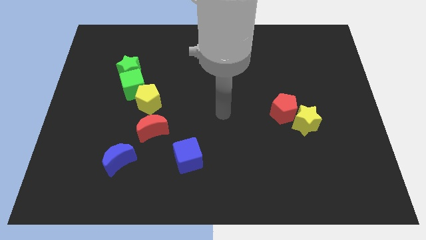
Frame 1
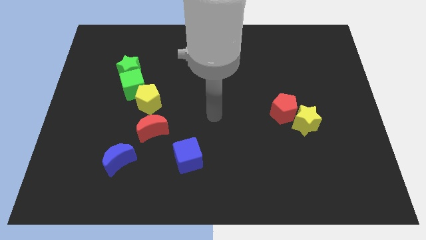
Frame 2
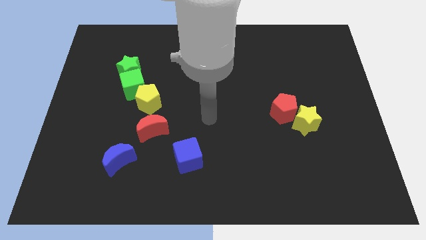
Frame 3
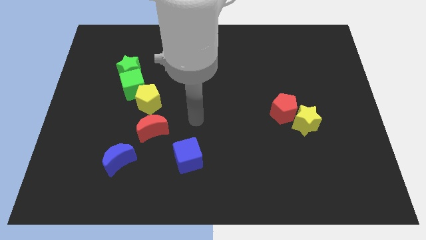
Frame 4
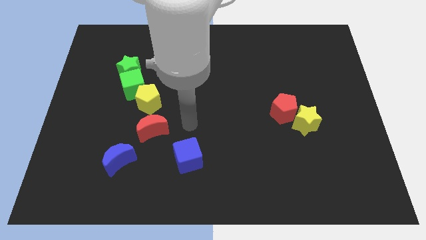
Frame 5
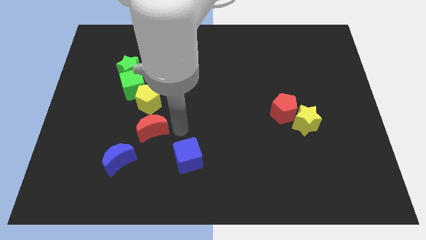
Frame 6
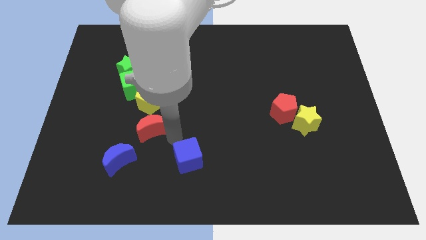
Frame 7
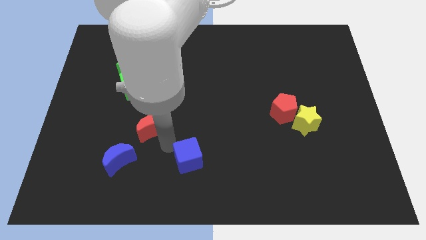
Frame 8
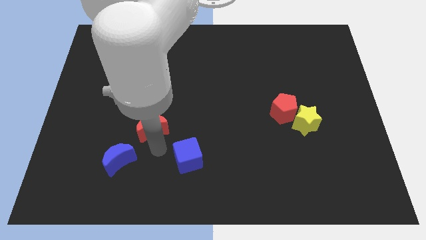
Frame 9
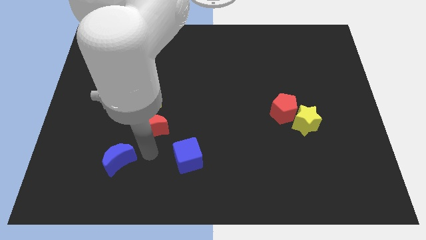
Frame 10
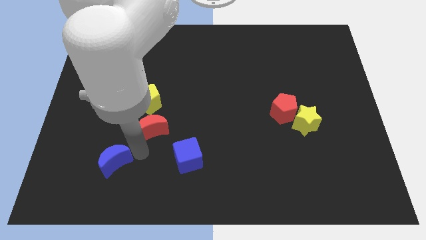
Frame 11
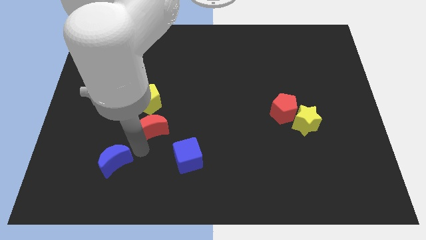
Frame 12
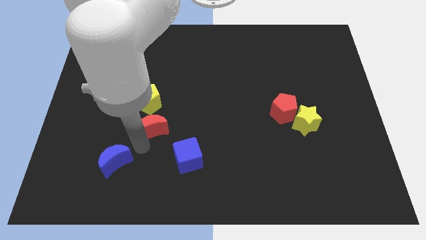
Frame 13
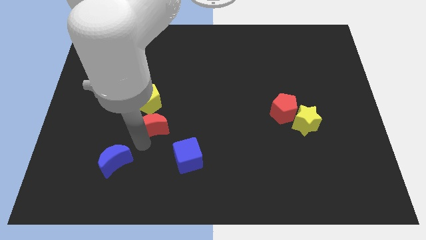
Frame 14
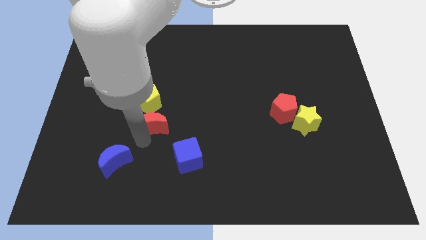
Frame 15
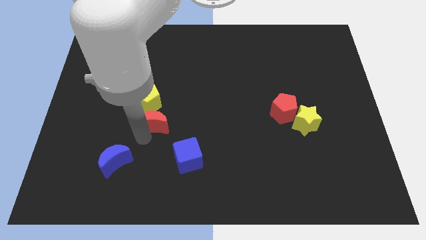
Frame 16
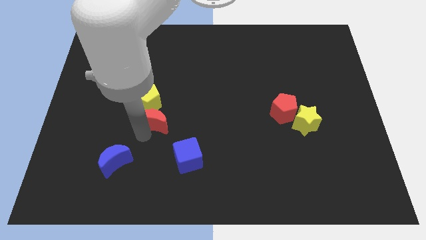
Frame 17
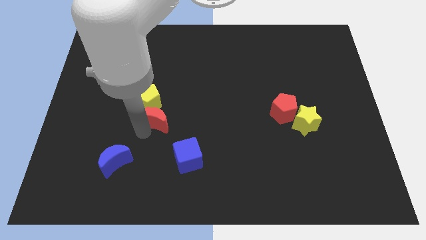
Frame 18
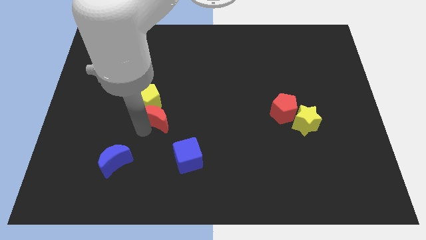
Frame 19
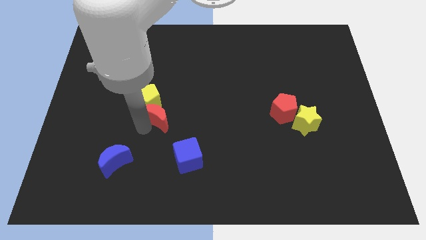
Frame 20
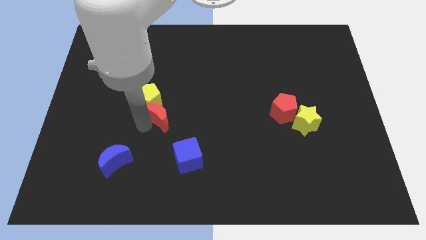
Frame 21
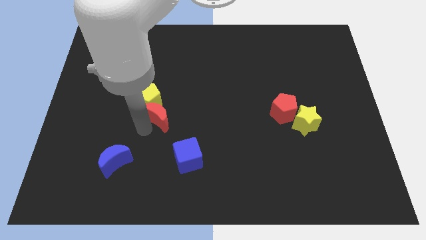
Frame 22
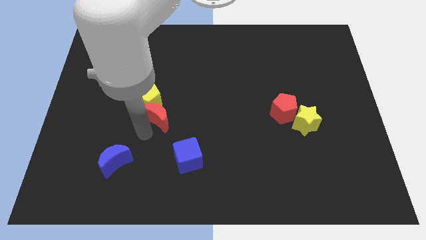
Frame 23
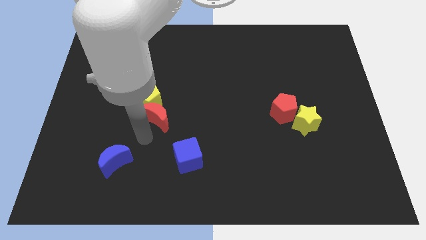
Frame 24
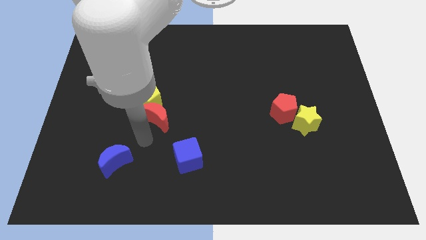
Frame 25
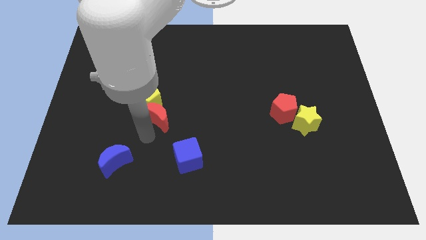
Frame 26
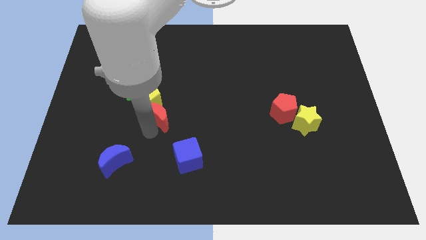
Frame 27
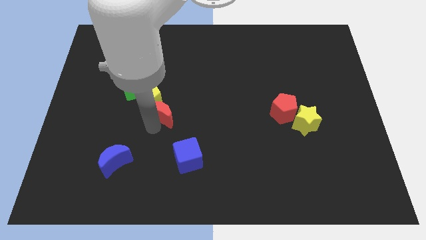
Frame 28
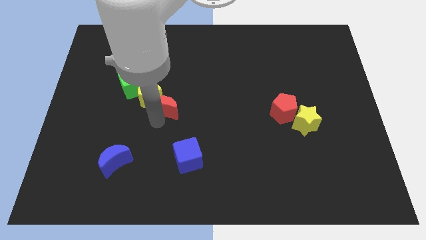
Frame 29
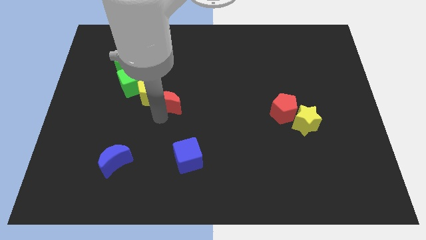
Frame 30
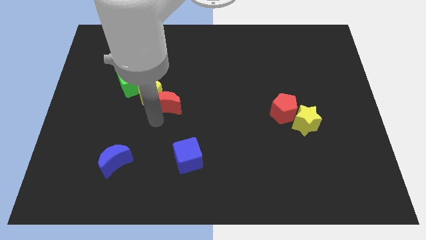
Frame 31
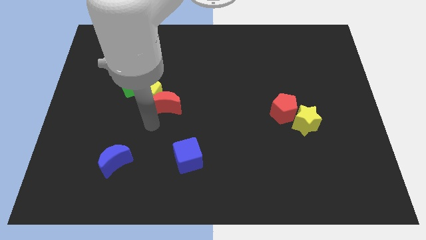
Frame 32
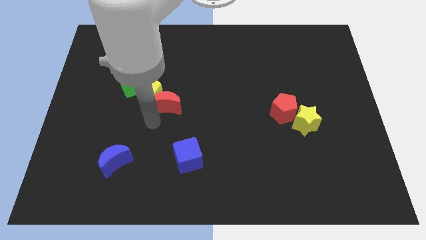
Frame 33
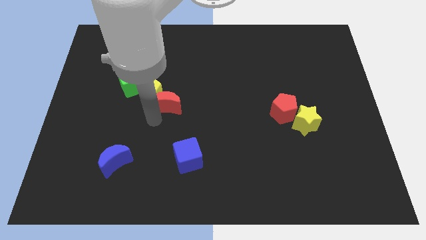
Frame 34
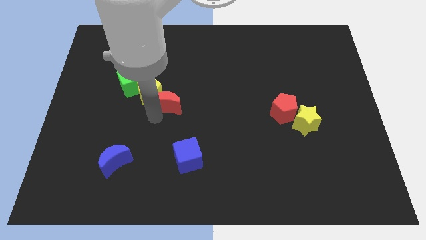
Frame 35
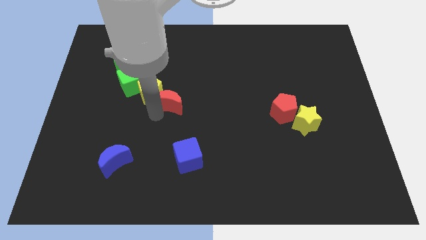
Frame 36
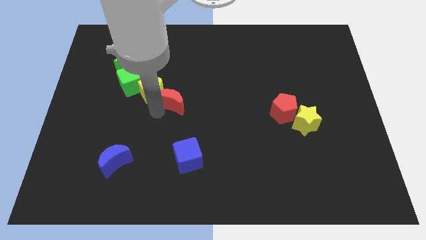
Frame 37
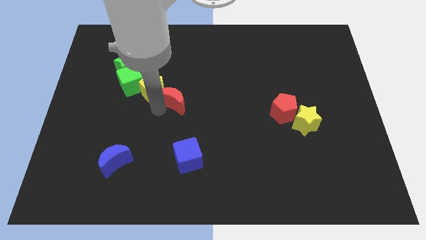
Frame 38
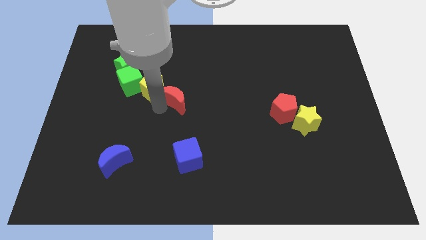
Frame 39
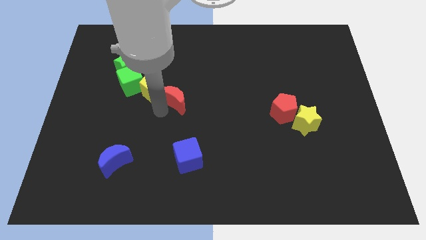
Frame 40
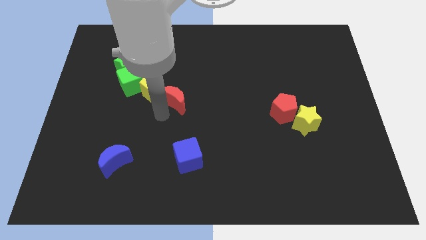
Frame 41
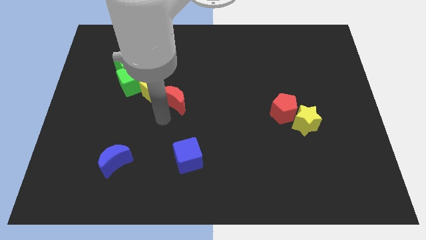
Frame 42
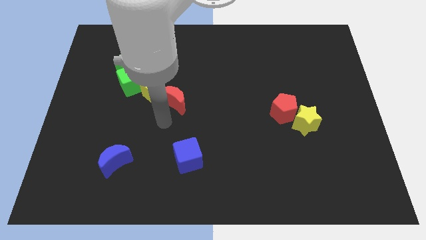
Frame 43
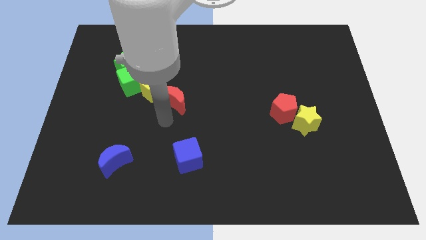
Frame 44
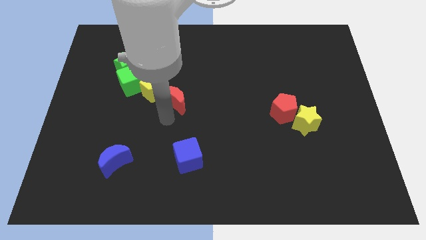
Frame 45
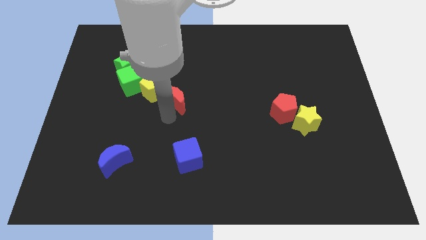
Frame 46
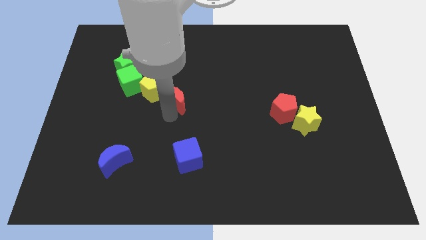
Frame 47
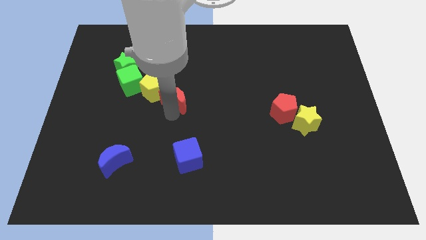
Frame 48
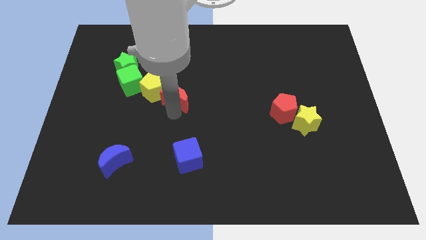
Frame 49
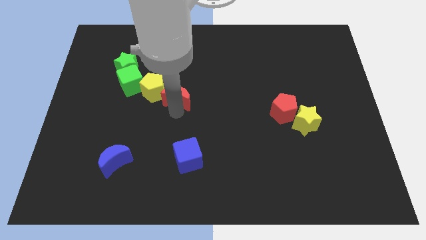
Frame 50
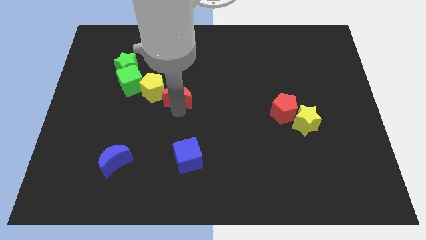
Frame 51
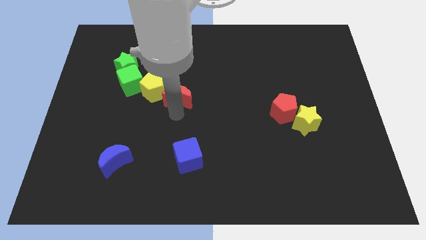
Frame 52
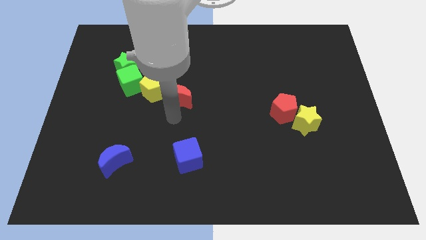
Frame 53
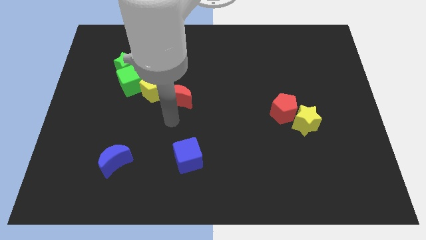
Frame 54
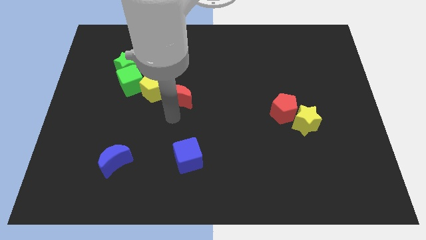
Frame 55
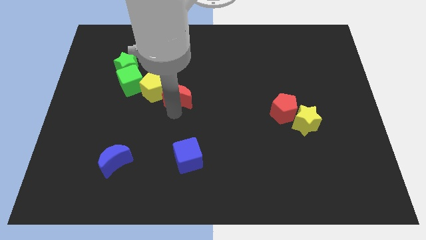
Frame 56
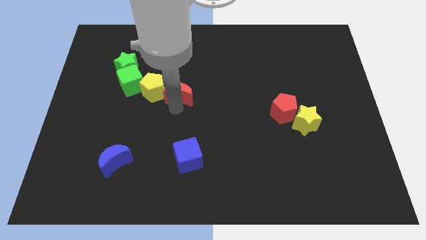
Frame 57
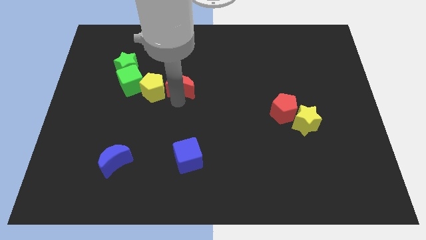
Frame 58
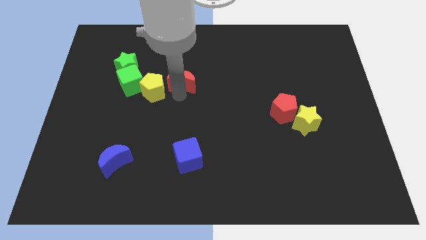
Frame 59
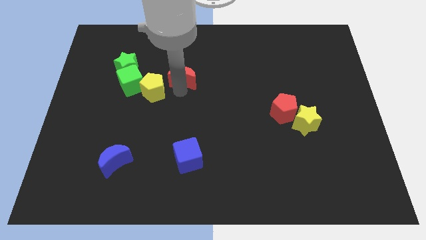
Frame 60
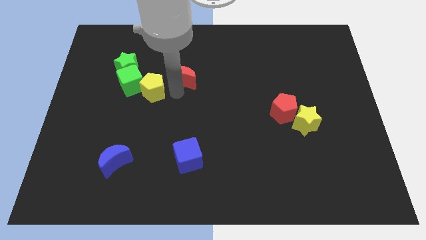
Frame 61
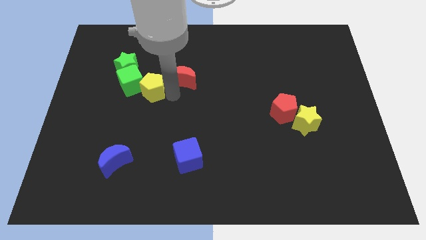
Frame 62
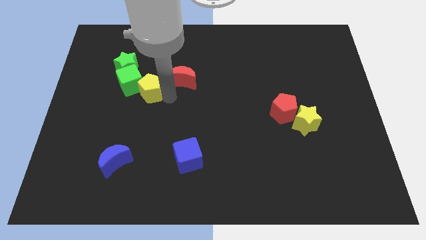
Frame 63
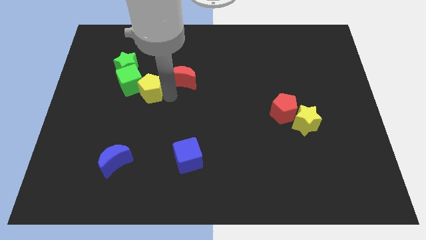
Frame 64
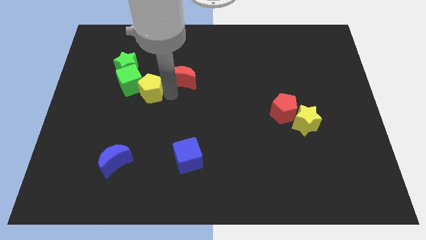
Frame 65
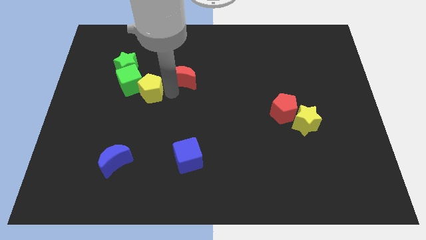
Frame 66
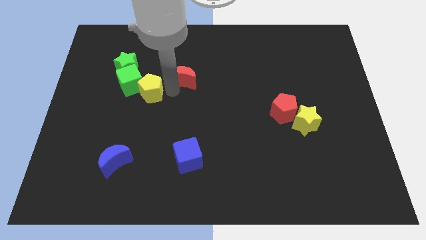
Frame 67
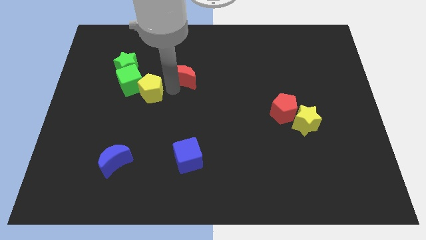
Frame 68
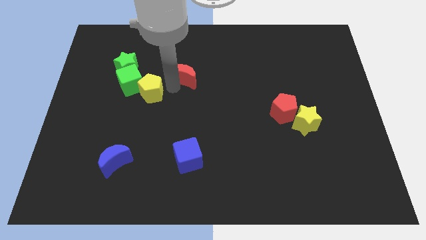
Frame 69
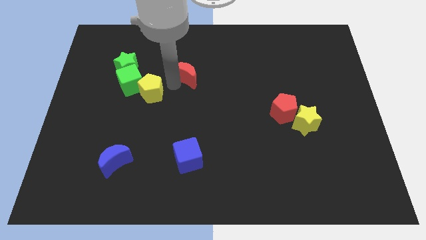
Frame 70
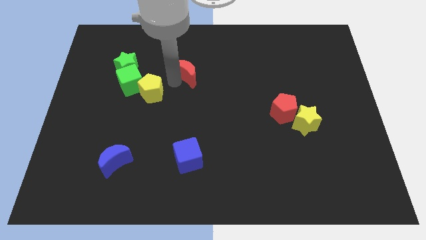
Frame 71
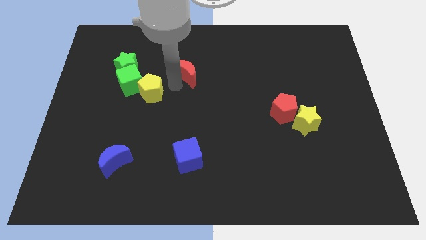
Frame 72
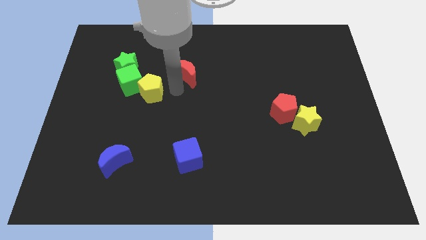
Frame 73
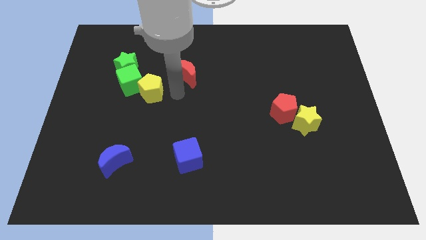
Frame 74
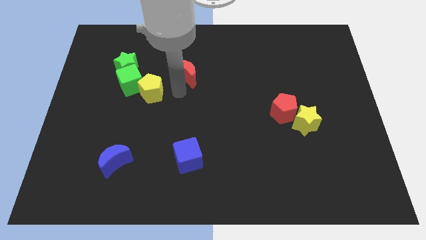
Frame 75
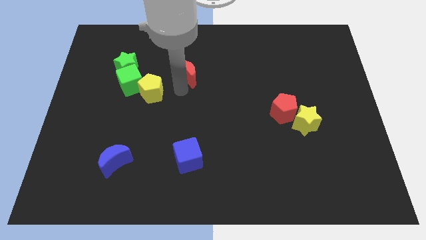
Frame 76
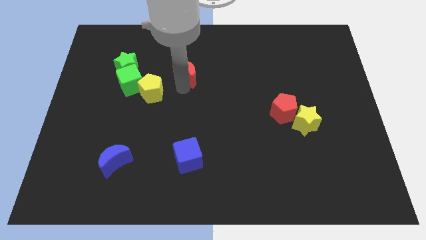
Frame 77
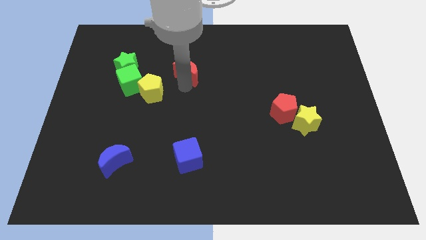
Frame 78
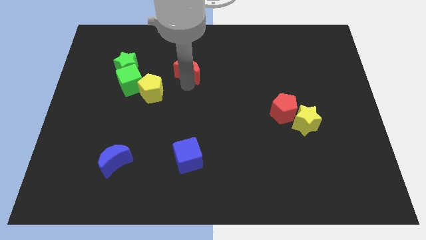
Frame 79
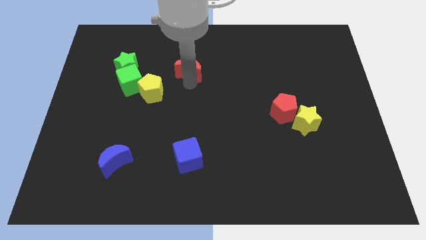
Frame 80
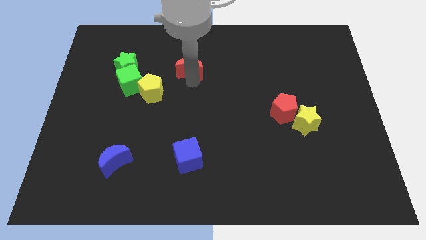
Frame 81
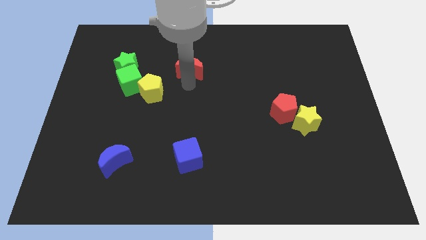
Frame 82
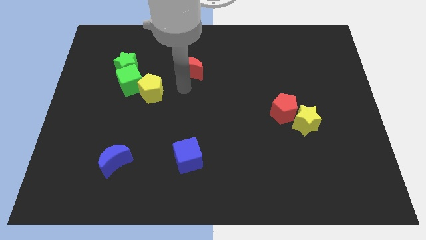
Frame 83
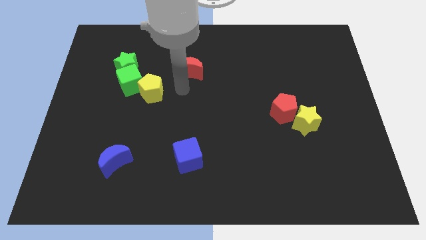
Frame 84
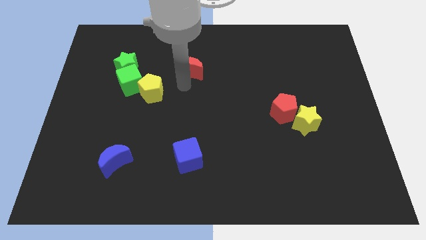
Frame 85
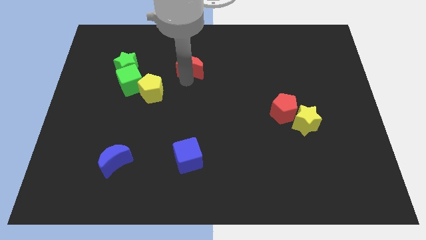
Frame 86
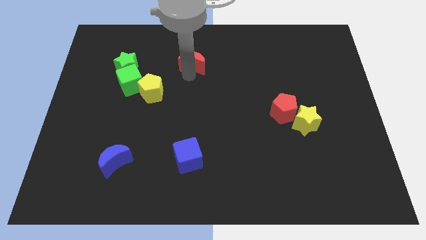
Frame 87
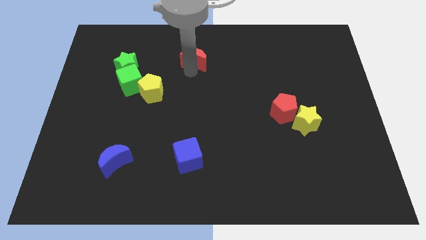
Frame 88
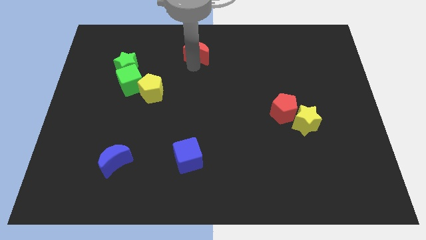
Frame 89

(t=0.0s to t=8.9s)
put the red moon to the top
